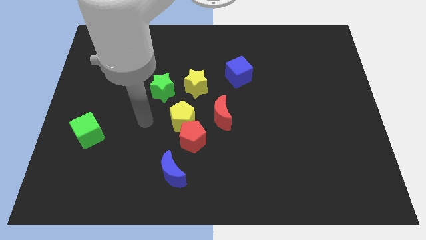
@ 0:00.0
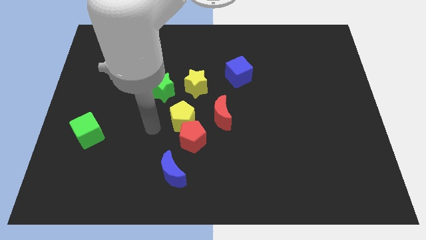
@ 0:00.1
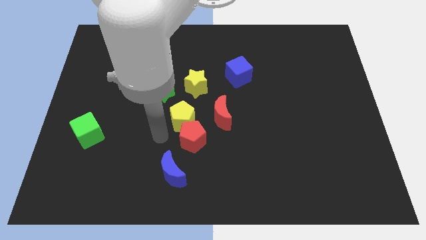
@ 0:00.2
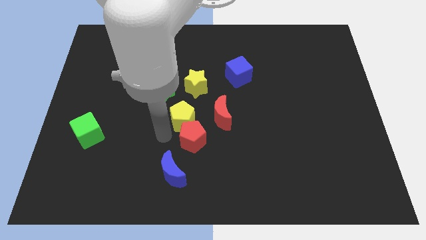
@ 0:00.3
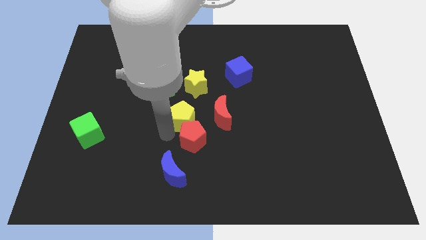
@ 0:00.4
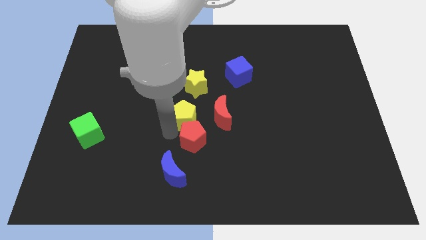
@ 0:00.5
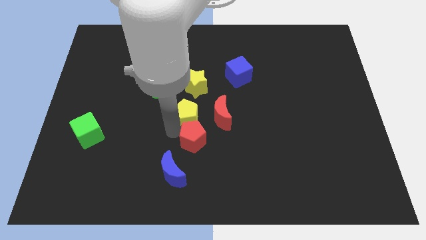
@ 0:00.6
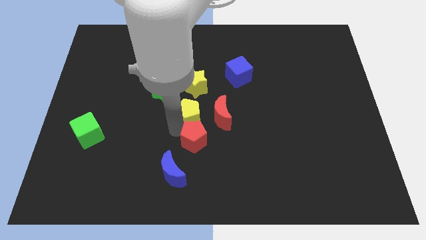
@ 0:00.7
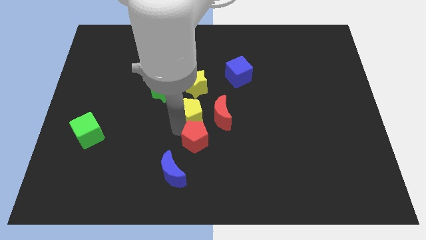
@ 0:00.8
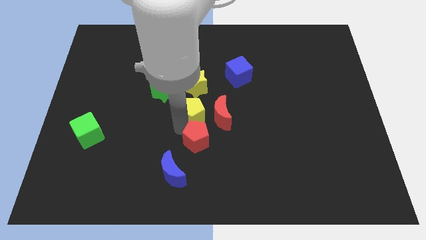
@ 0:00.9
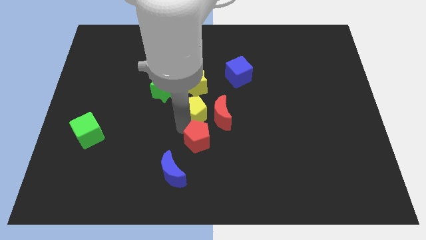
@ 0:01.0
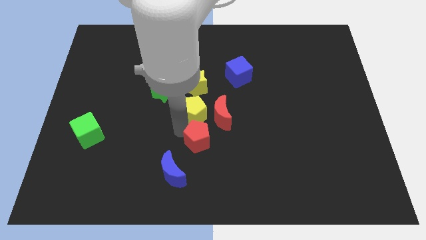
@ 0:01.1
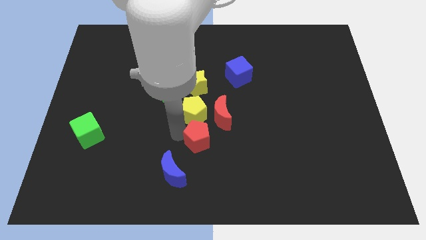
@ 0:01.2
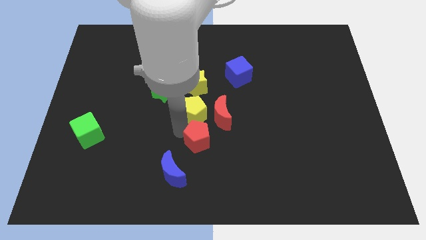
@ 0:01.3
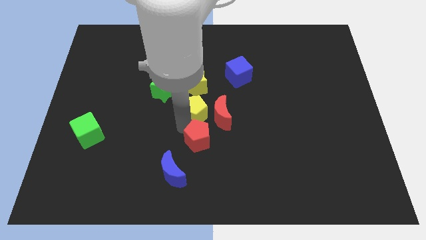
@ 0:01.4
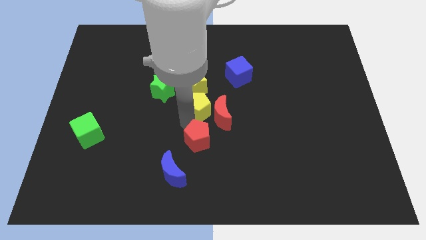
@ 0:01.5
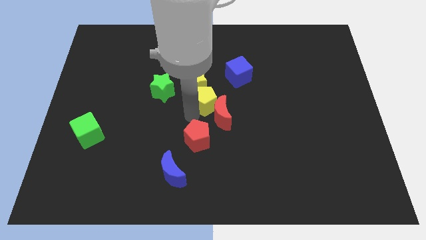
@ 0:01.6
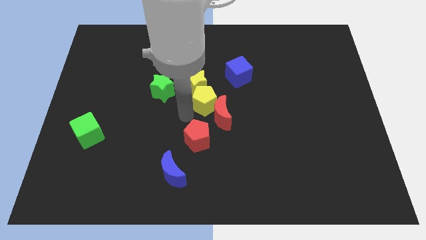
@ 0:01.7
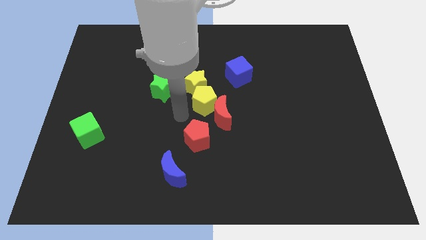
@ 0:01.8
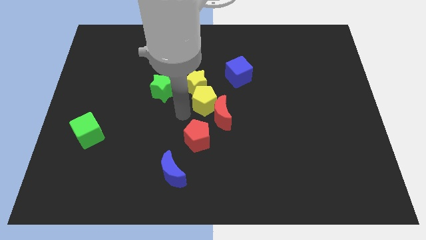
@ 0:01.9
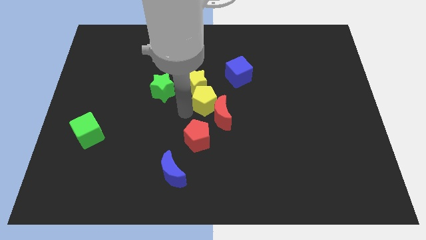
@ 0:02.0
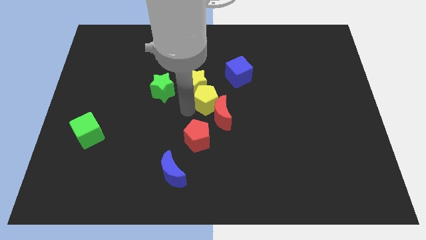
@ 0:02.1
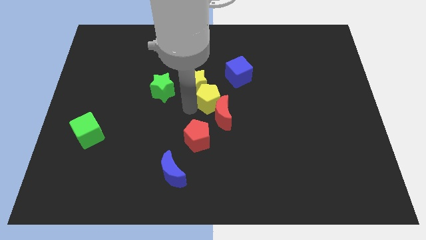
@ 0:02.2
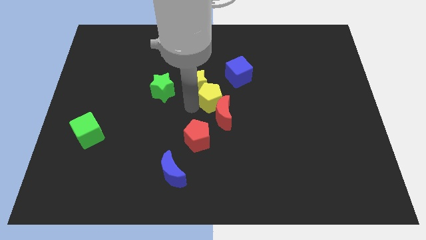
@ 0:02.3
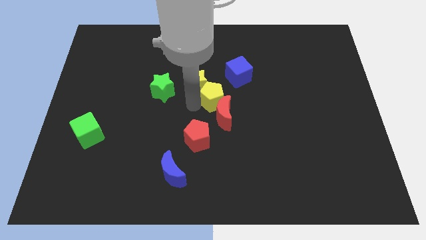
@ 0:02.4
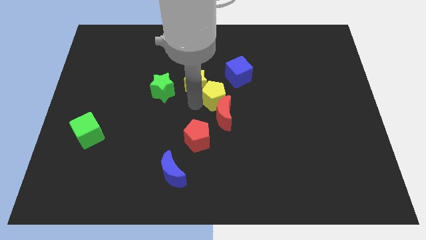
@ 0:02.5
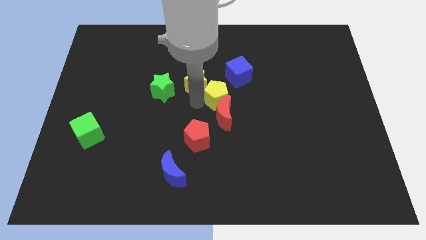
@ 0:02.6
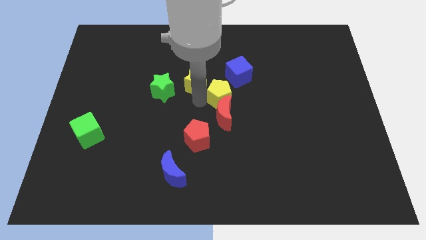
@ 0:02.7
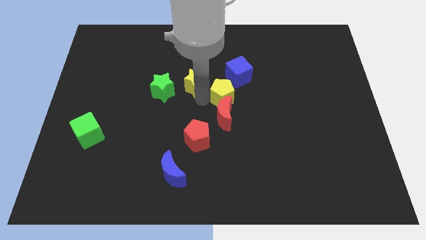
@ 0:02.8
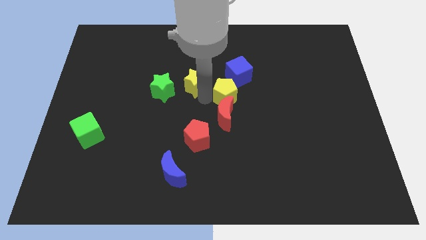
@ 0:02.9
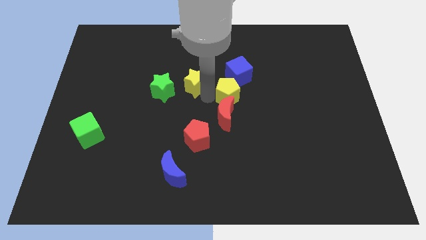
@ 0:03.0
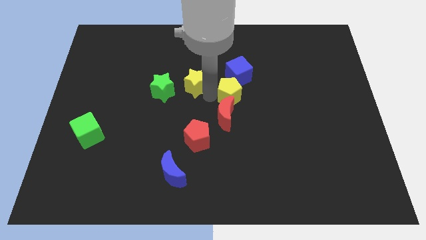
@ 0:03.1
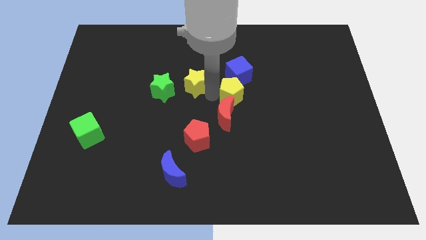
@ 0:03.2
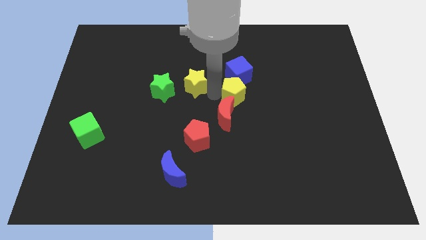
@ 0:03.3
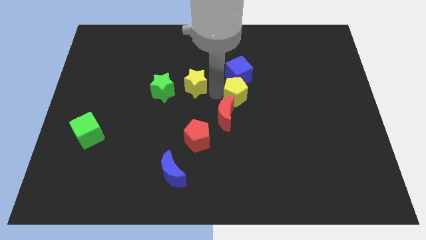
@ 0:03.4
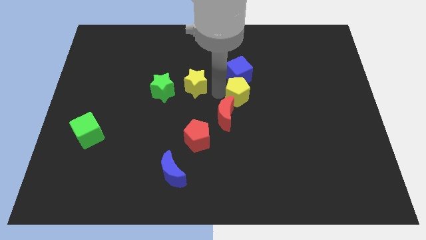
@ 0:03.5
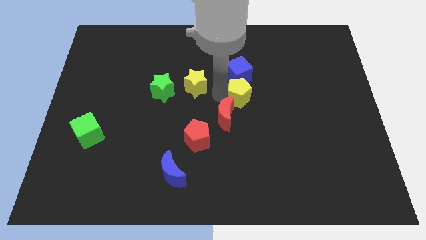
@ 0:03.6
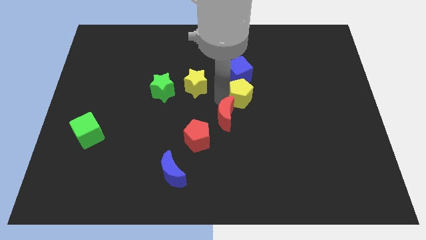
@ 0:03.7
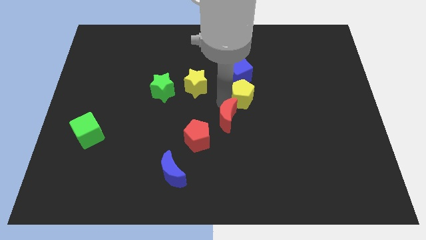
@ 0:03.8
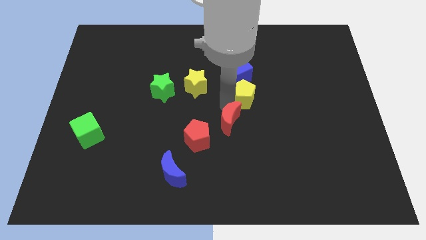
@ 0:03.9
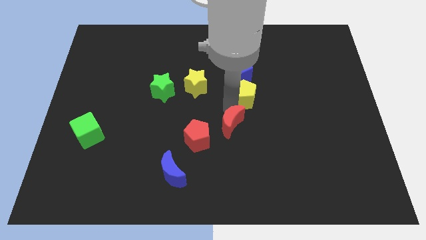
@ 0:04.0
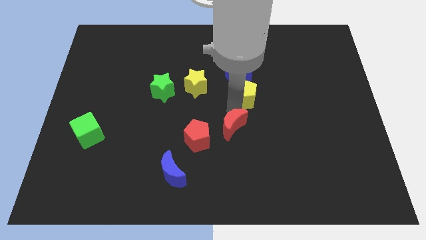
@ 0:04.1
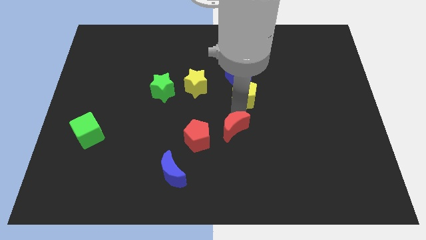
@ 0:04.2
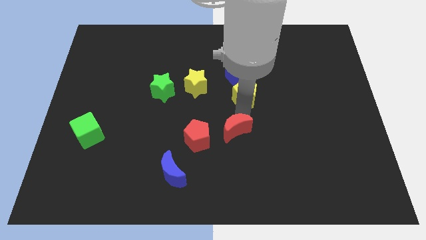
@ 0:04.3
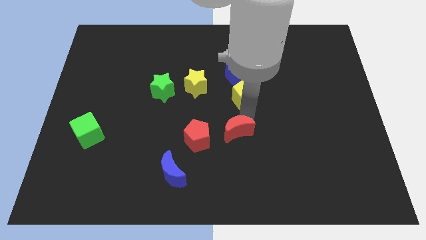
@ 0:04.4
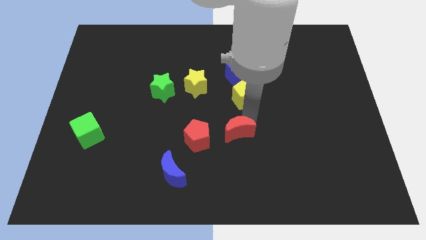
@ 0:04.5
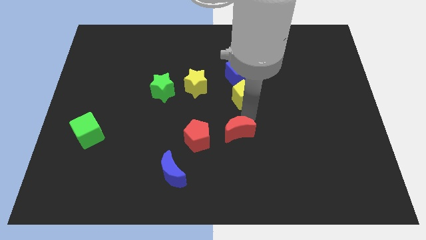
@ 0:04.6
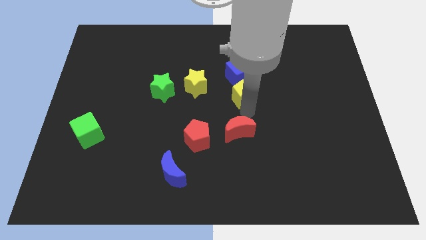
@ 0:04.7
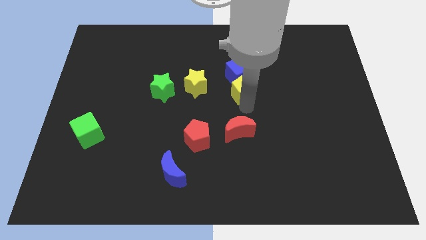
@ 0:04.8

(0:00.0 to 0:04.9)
slide the yellow pentagon to the blue cube

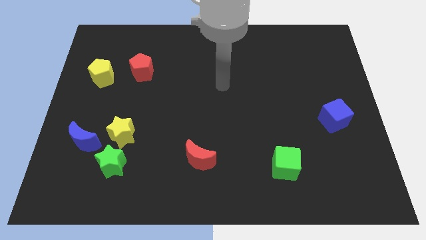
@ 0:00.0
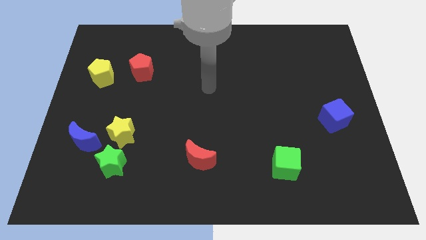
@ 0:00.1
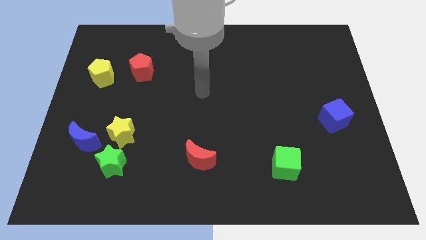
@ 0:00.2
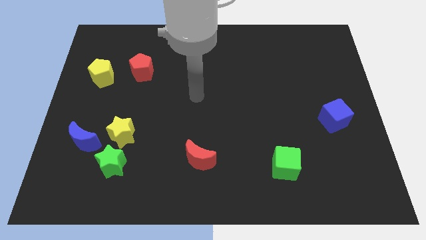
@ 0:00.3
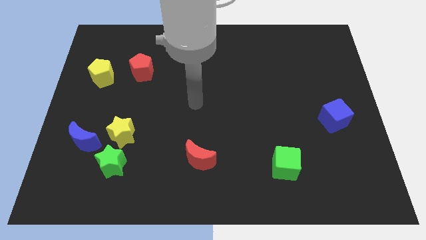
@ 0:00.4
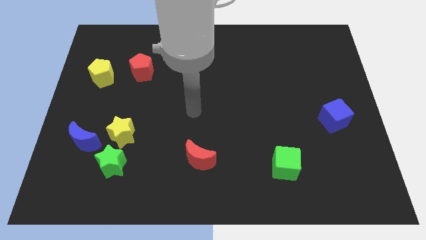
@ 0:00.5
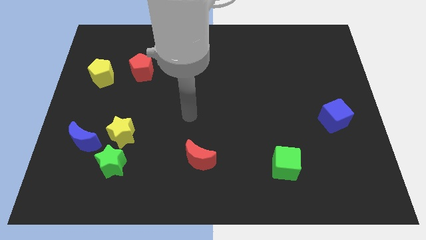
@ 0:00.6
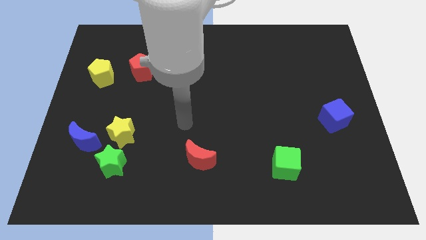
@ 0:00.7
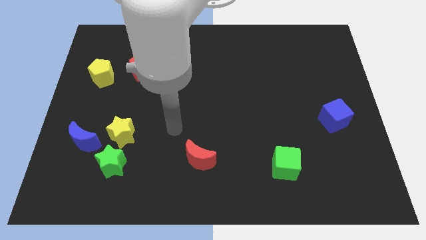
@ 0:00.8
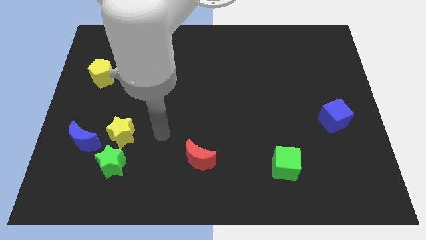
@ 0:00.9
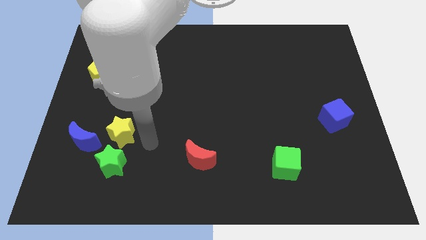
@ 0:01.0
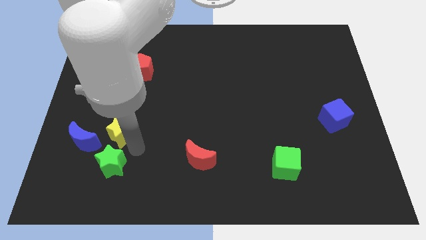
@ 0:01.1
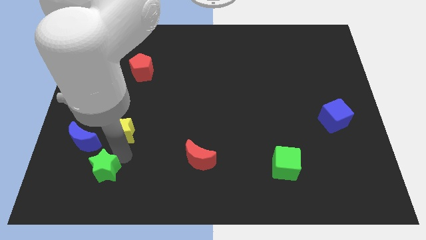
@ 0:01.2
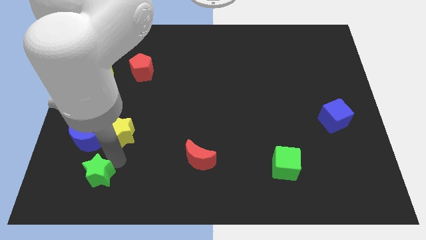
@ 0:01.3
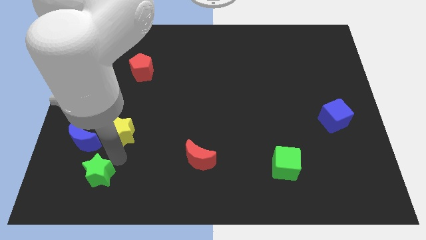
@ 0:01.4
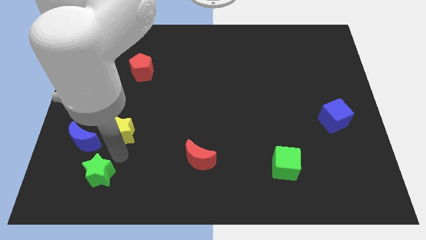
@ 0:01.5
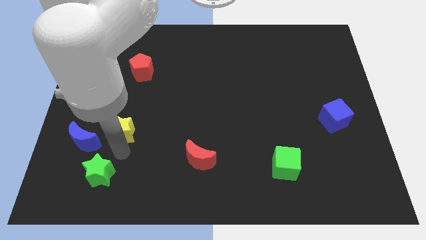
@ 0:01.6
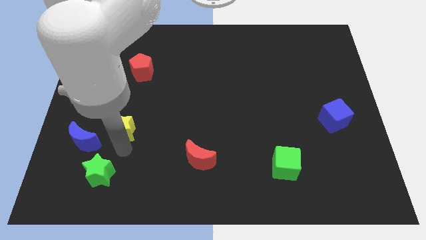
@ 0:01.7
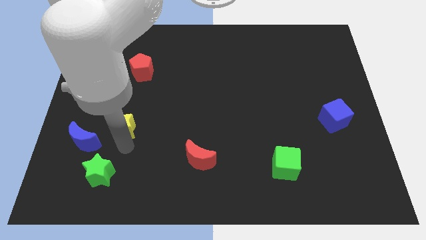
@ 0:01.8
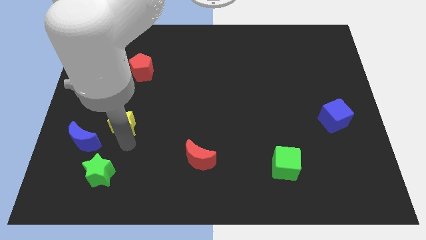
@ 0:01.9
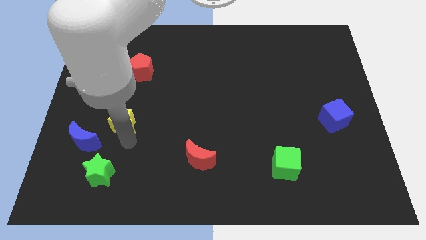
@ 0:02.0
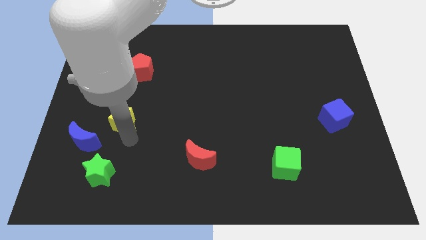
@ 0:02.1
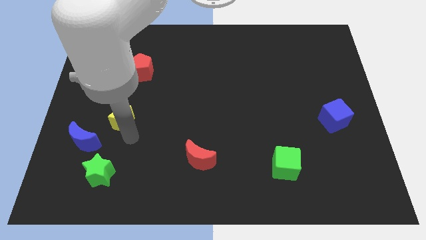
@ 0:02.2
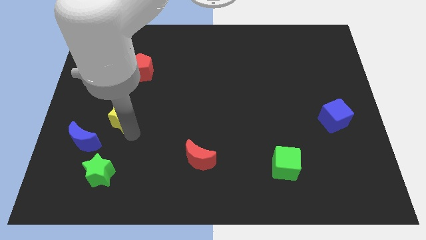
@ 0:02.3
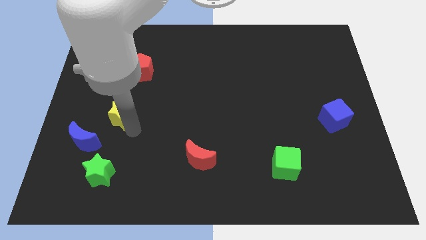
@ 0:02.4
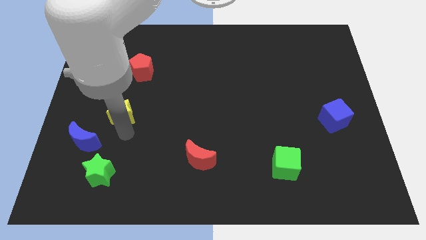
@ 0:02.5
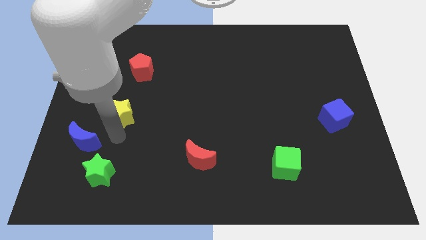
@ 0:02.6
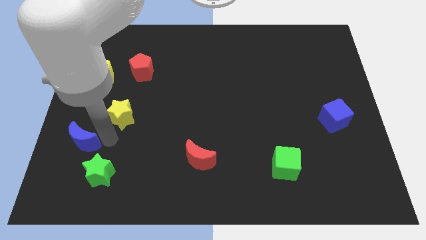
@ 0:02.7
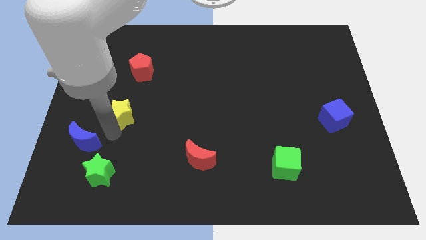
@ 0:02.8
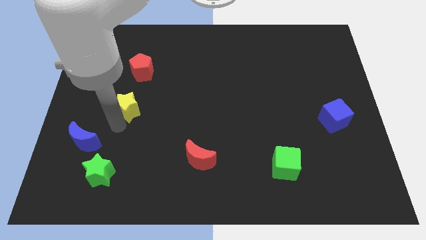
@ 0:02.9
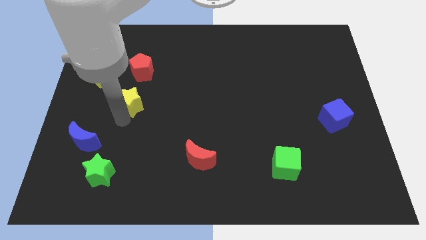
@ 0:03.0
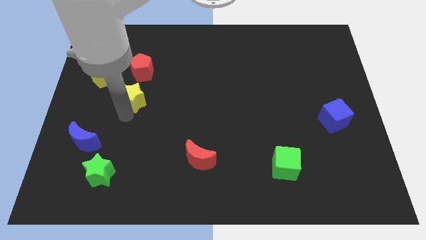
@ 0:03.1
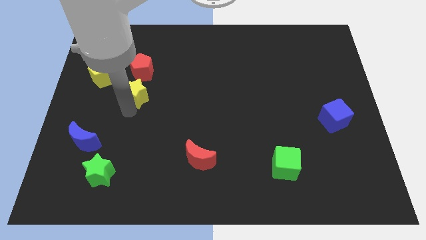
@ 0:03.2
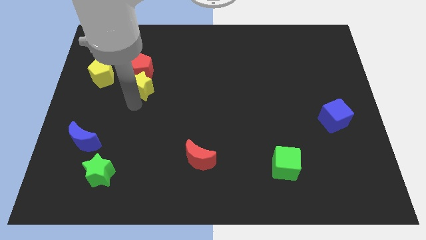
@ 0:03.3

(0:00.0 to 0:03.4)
slide the yellow star next to the red pentagon
